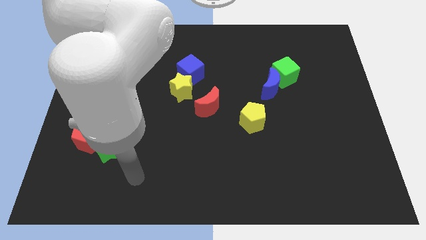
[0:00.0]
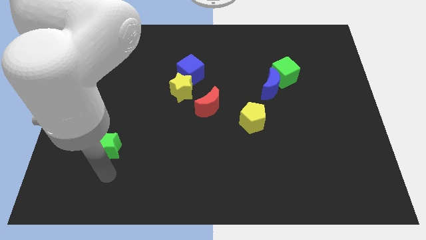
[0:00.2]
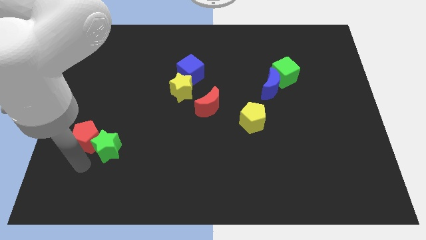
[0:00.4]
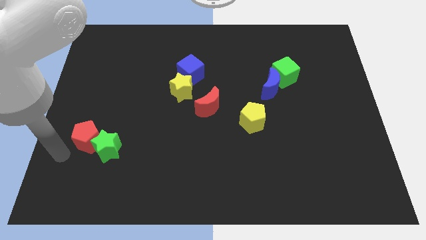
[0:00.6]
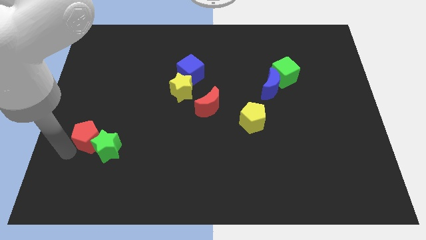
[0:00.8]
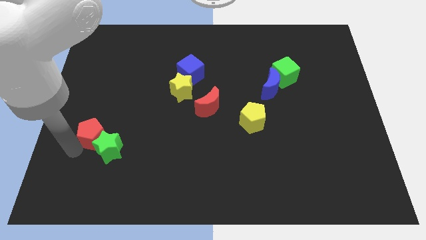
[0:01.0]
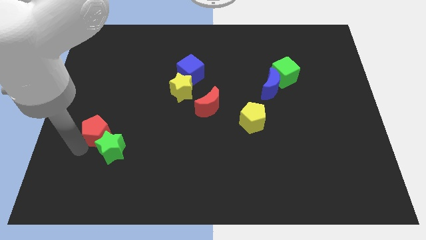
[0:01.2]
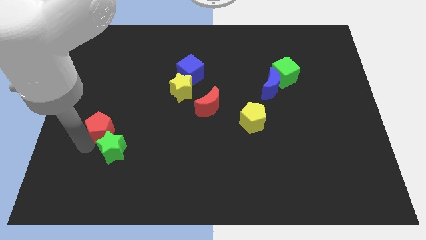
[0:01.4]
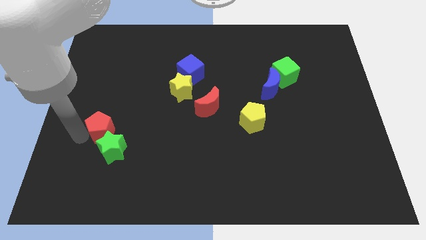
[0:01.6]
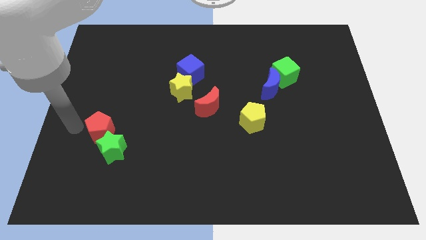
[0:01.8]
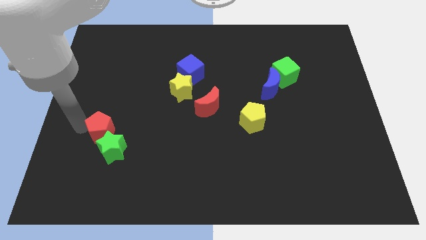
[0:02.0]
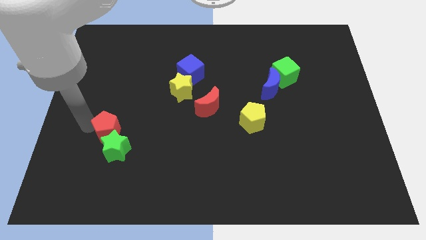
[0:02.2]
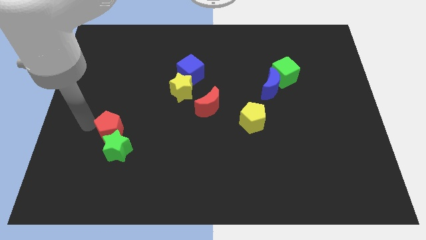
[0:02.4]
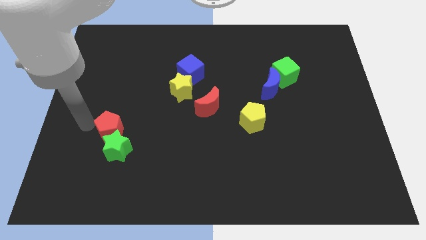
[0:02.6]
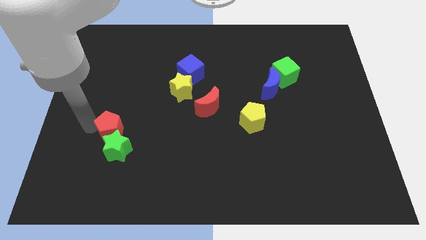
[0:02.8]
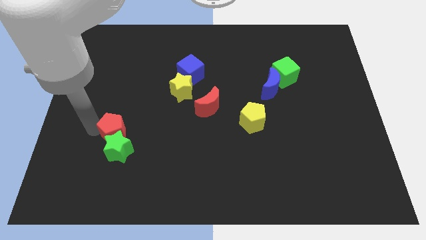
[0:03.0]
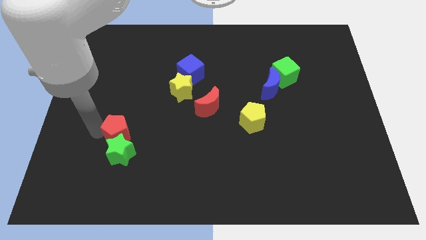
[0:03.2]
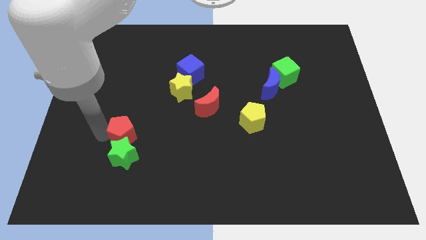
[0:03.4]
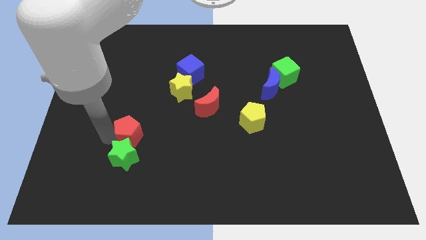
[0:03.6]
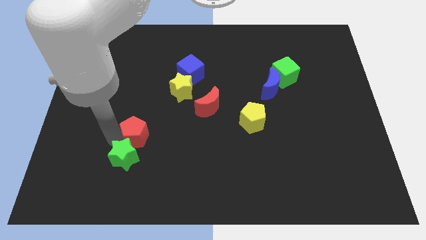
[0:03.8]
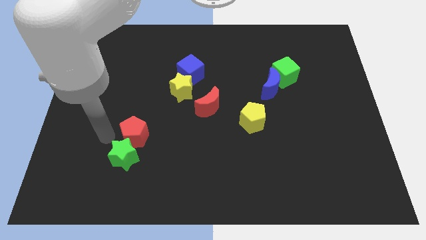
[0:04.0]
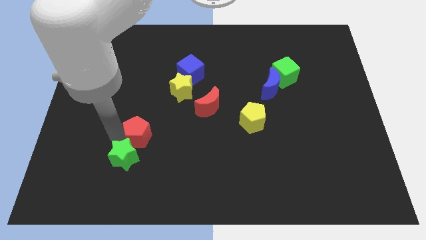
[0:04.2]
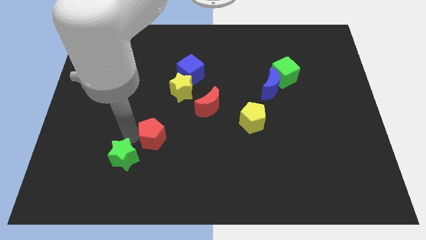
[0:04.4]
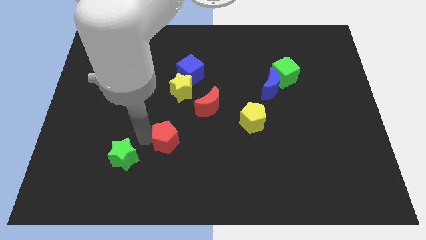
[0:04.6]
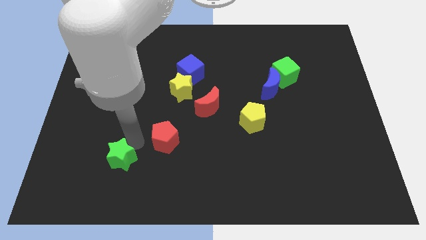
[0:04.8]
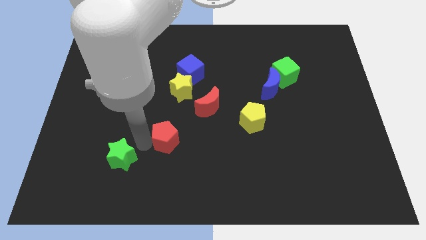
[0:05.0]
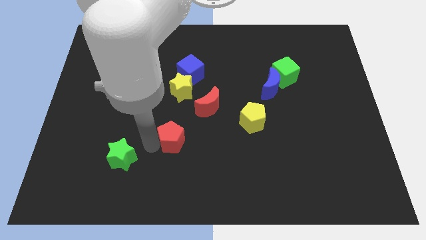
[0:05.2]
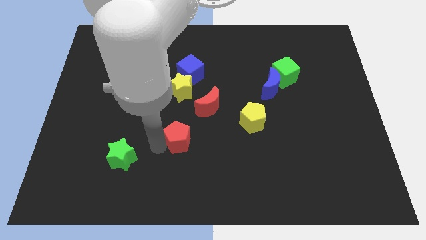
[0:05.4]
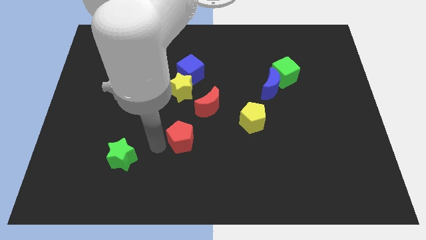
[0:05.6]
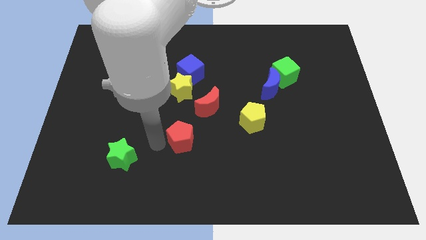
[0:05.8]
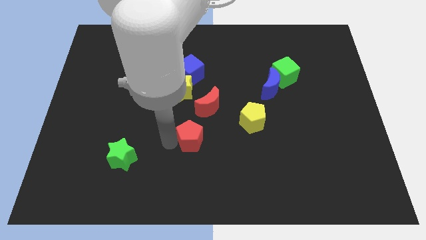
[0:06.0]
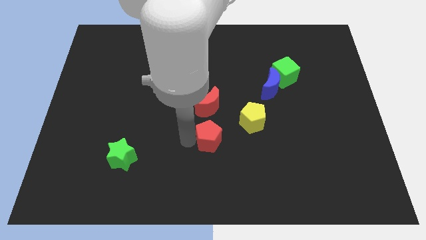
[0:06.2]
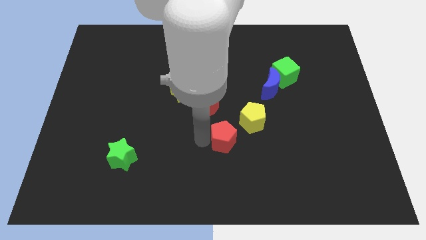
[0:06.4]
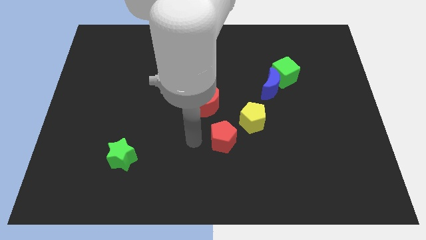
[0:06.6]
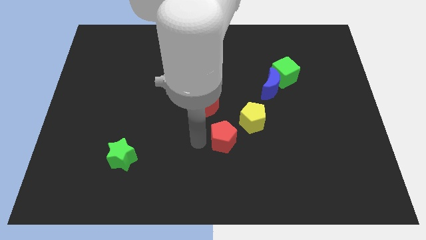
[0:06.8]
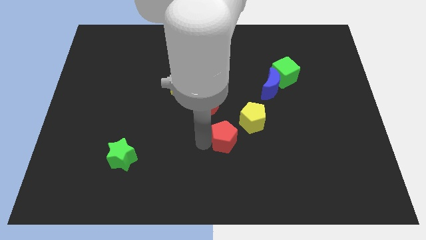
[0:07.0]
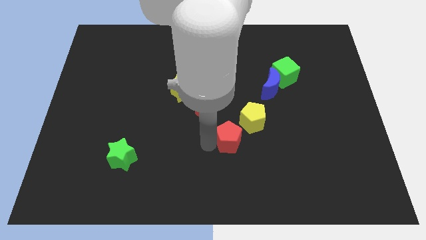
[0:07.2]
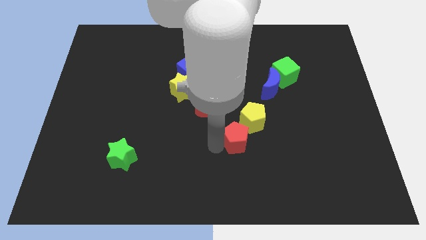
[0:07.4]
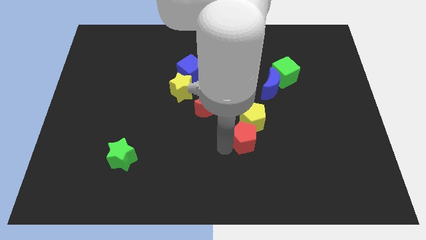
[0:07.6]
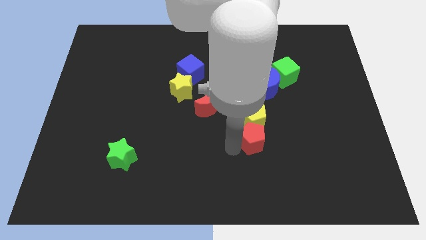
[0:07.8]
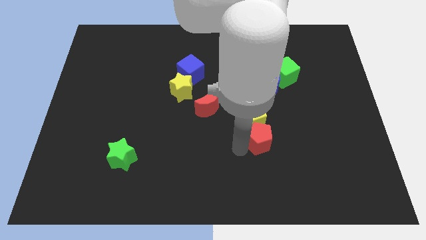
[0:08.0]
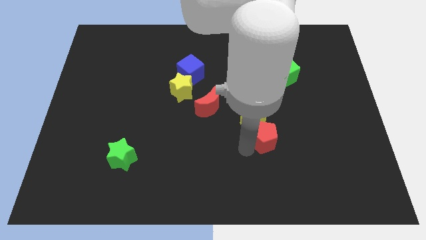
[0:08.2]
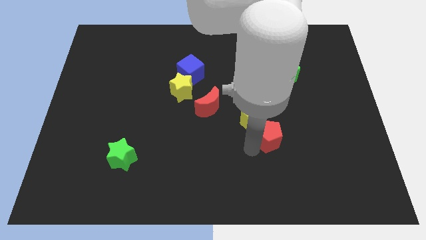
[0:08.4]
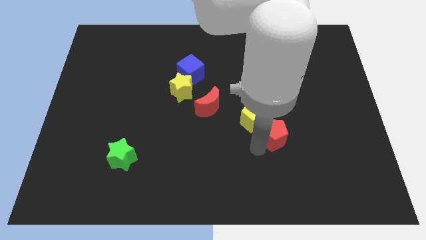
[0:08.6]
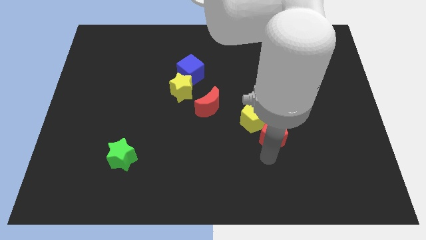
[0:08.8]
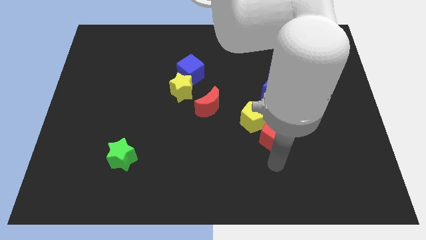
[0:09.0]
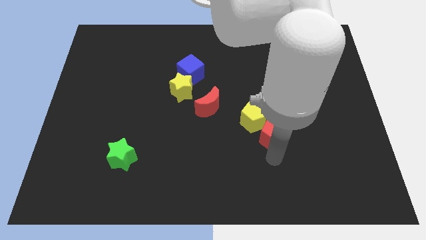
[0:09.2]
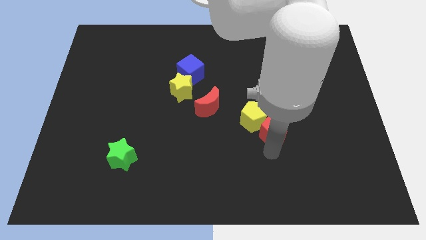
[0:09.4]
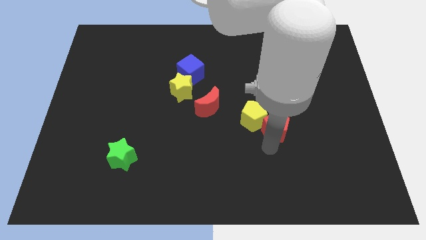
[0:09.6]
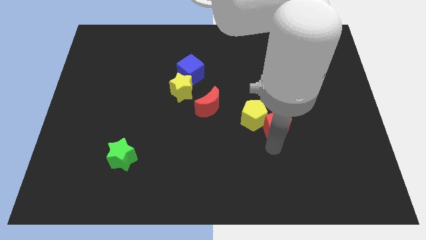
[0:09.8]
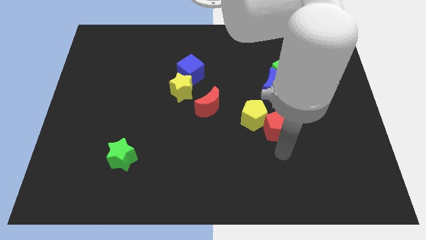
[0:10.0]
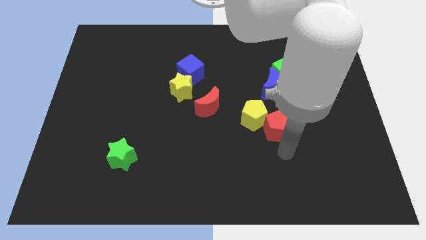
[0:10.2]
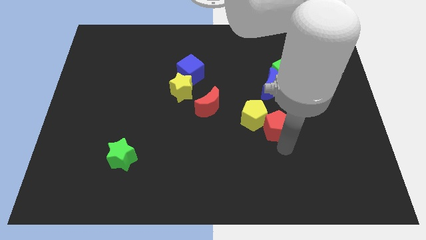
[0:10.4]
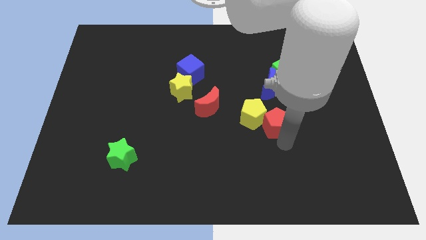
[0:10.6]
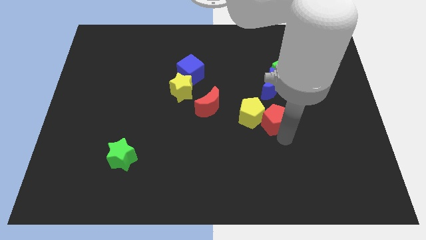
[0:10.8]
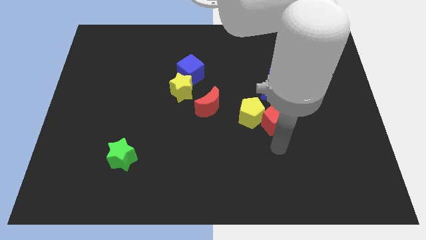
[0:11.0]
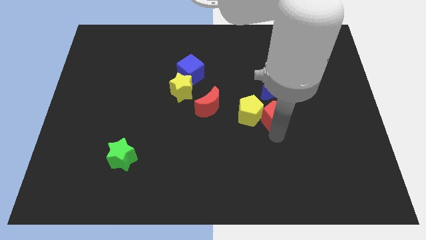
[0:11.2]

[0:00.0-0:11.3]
move the red pentagon diagonally up and to the right of the yellow pentagon
